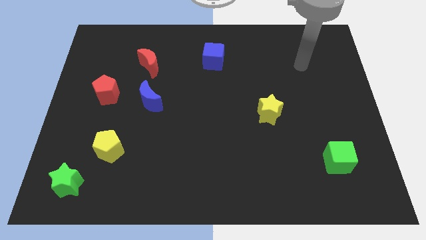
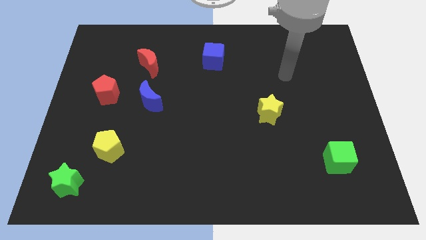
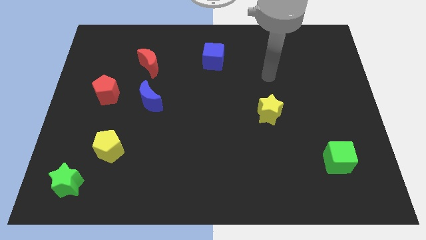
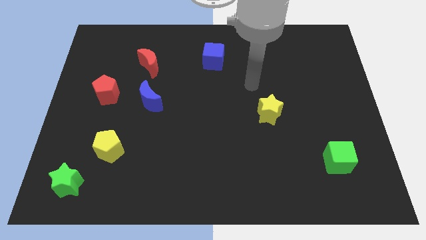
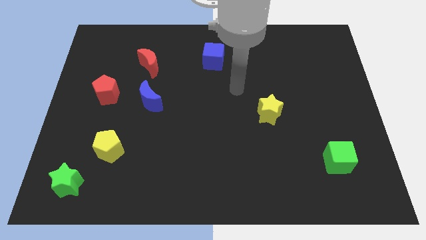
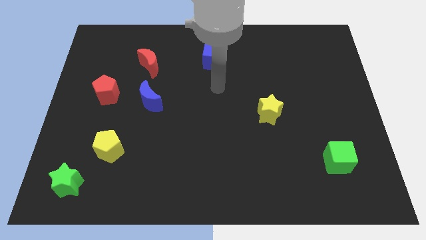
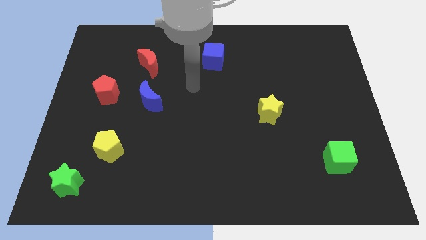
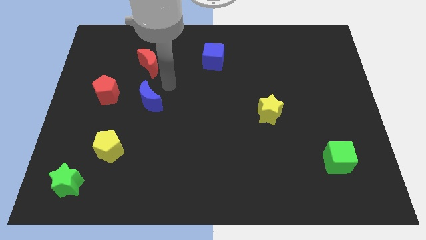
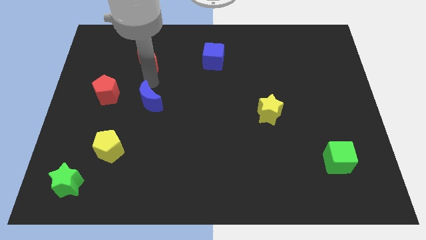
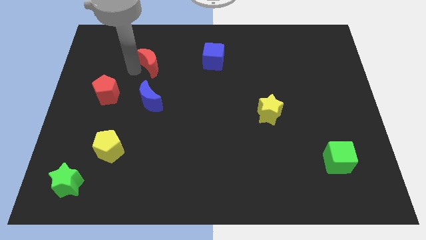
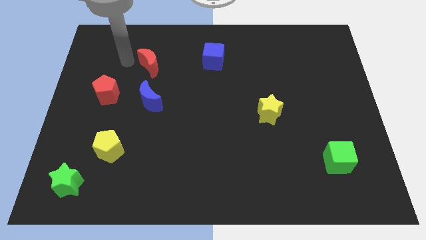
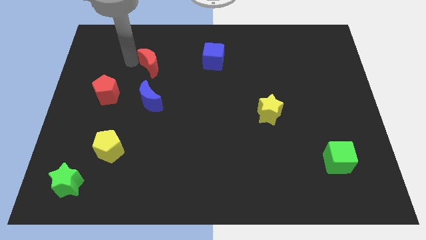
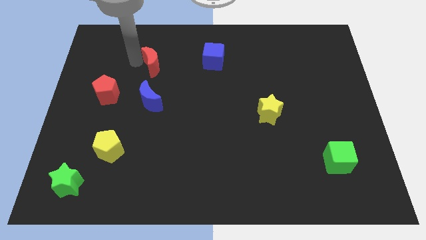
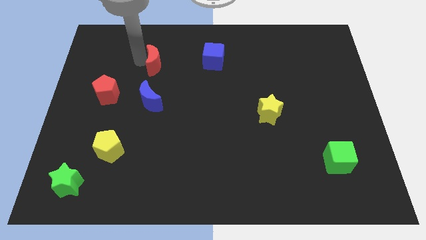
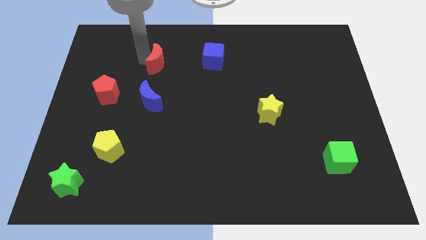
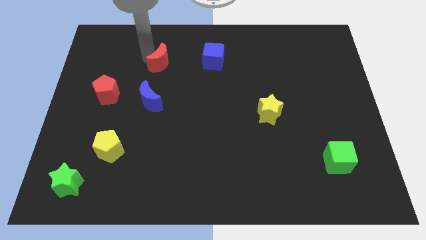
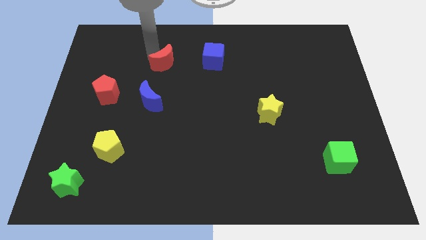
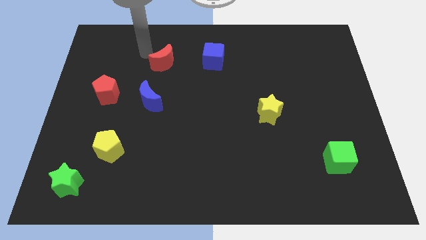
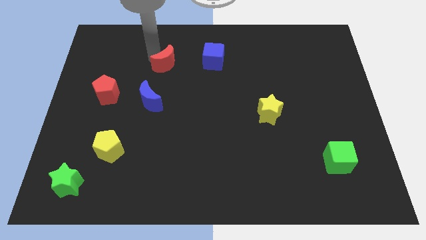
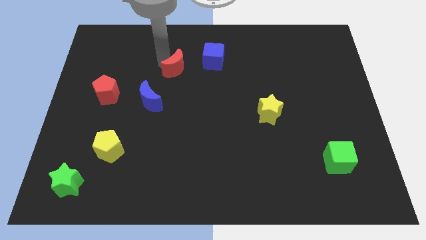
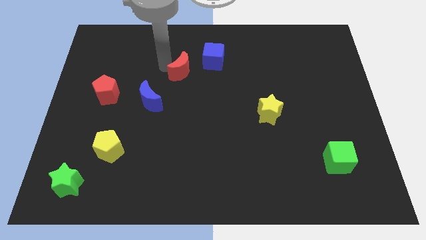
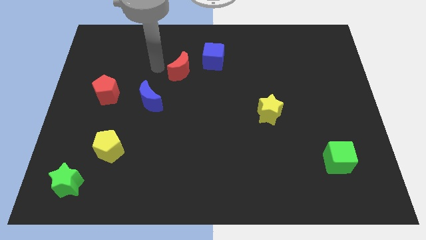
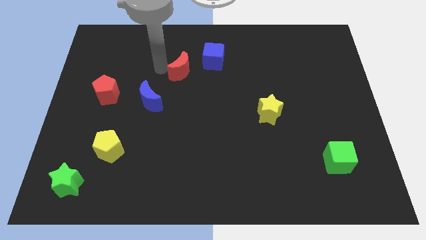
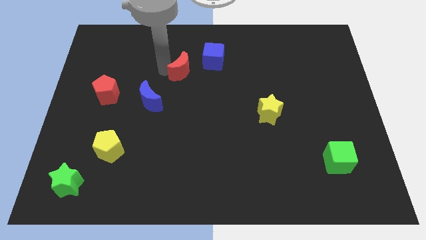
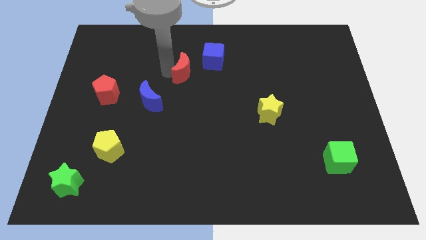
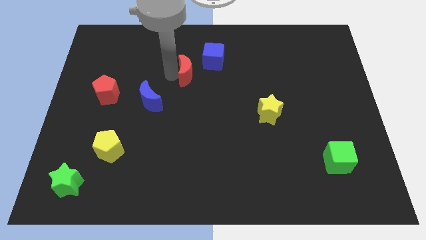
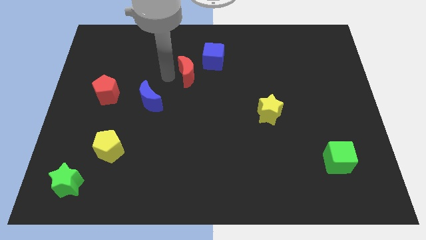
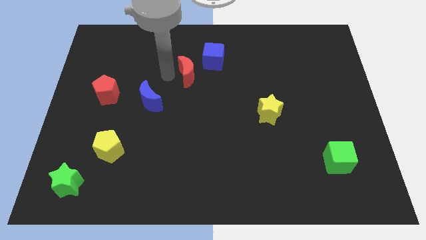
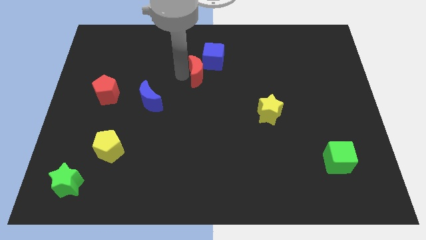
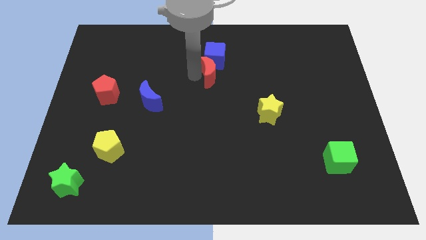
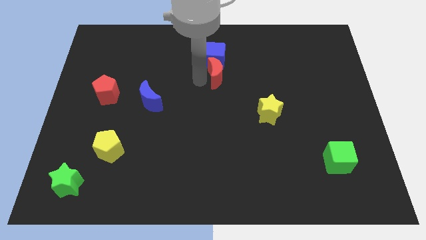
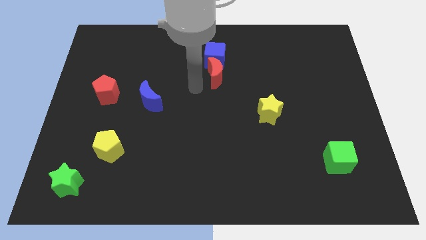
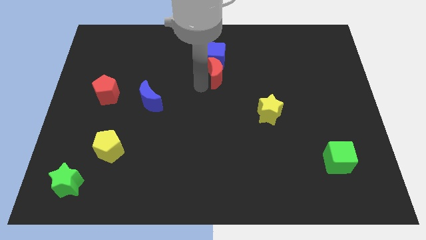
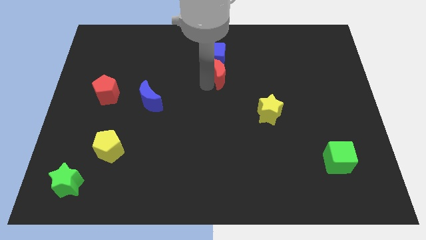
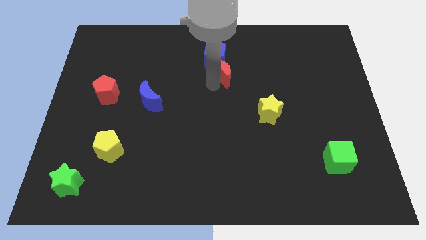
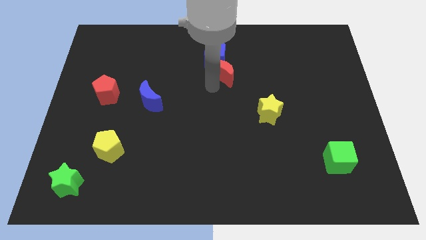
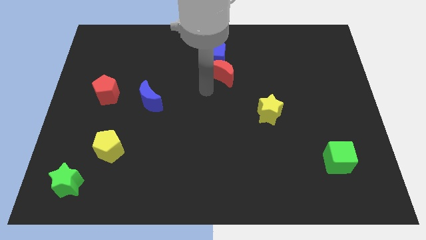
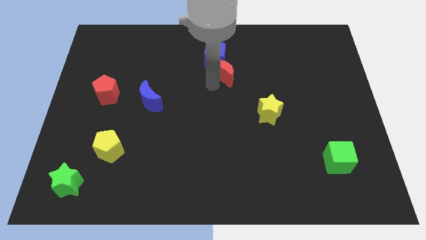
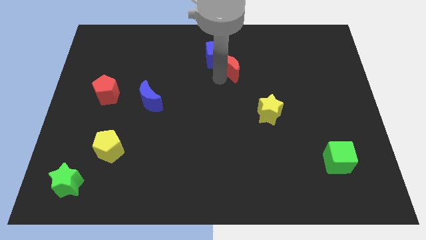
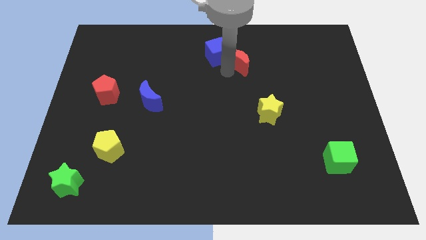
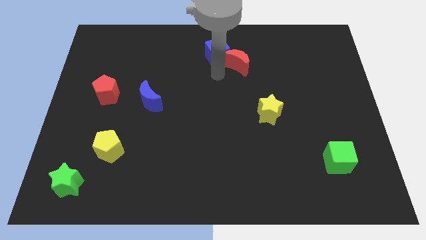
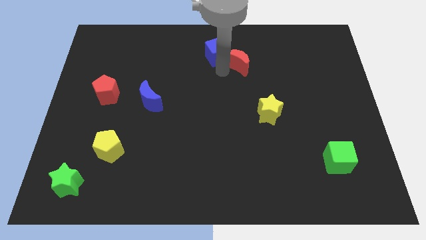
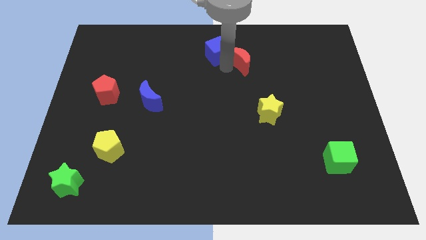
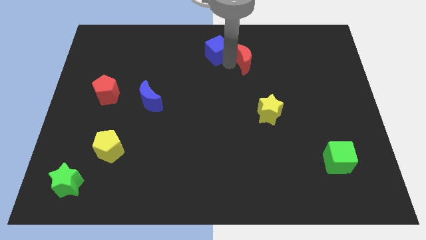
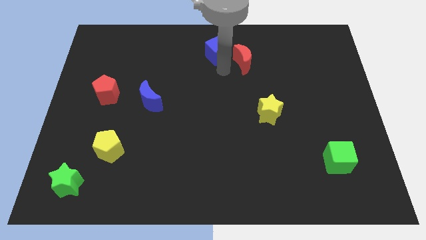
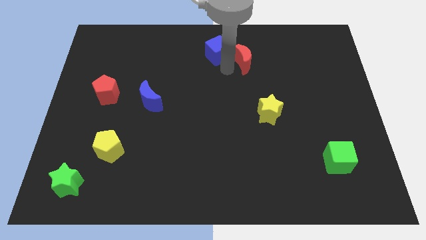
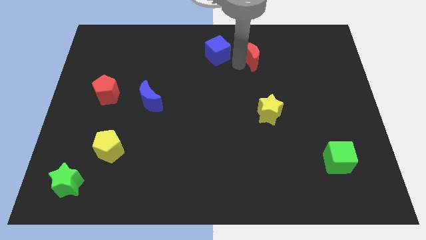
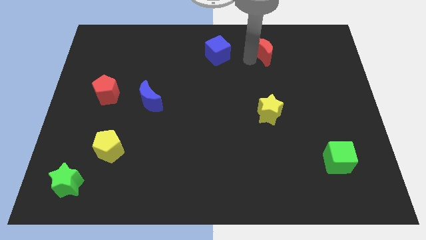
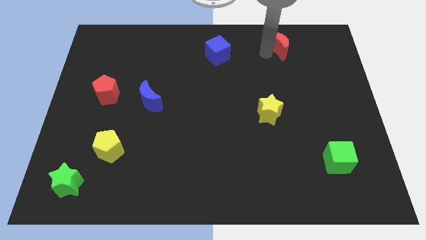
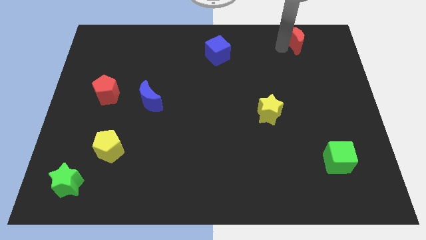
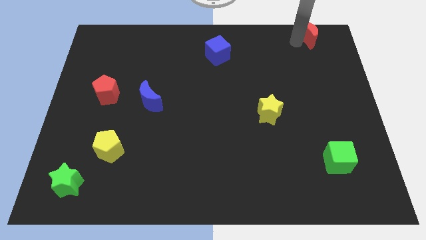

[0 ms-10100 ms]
slide the red moon to the top right of the board
